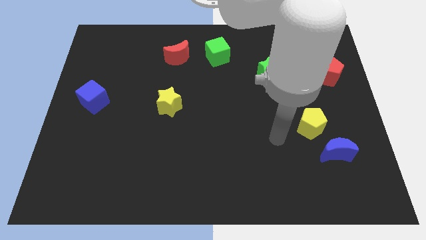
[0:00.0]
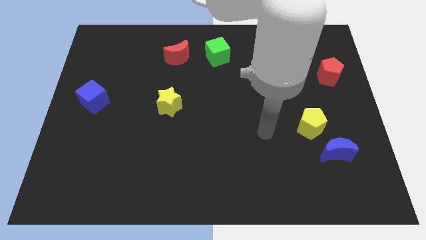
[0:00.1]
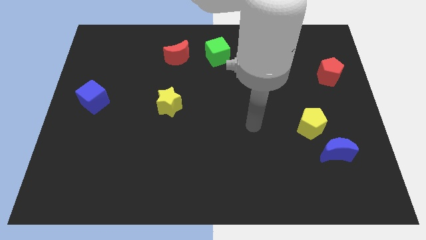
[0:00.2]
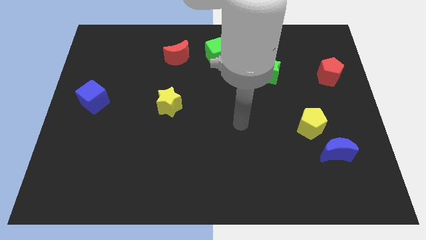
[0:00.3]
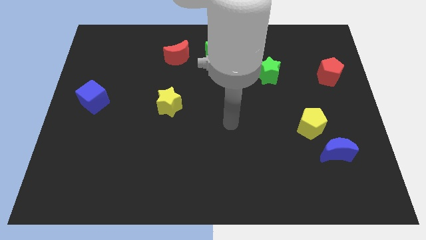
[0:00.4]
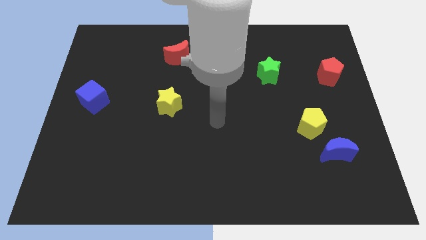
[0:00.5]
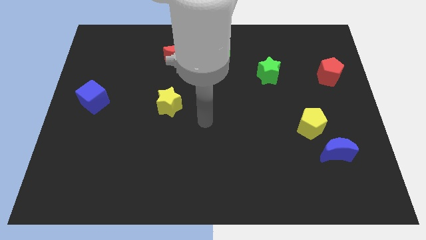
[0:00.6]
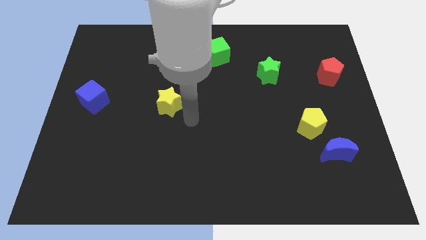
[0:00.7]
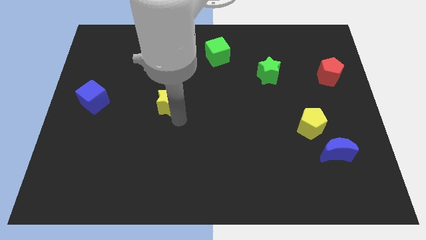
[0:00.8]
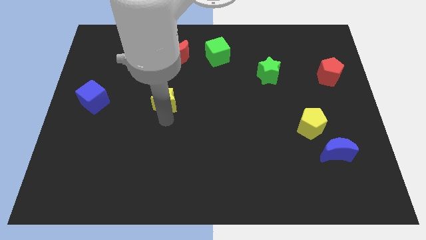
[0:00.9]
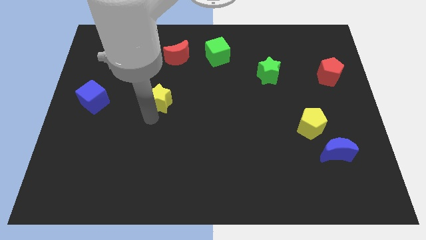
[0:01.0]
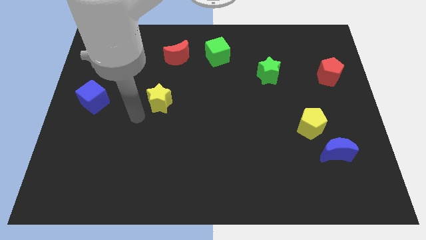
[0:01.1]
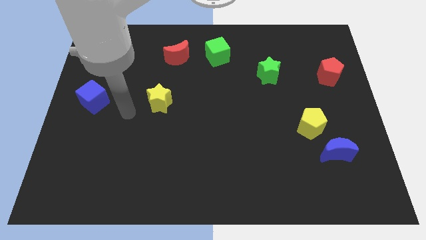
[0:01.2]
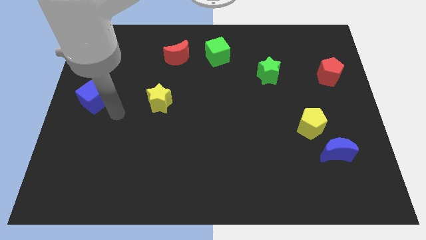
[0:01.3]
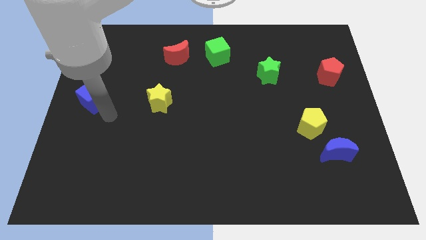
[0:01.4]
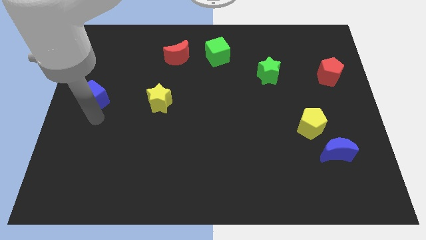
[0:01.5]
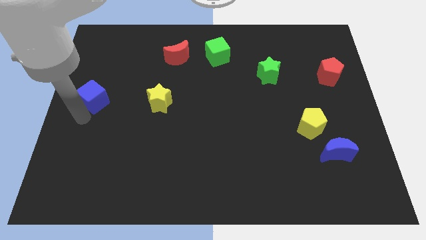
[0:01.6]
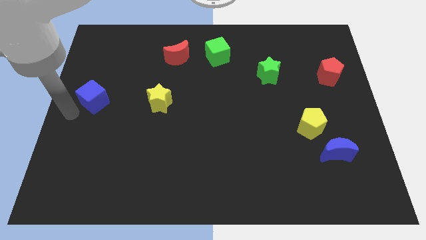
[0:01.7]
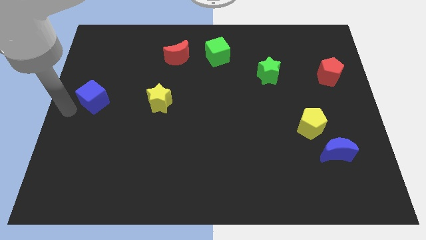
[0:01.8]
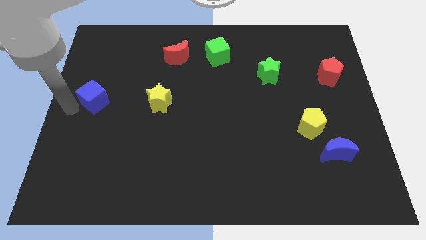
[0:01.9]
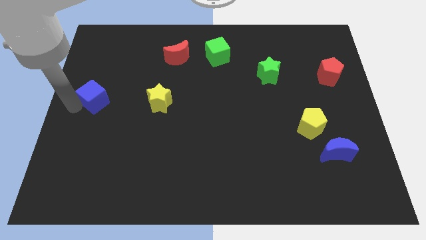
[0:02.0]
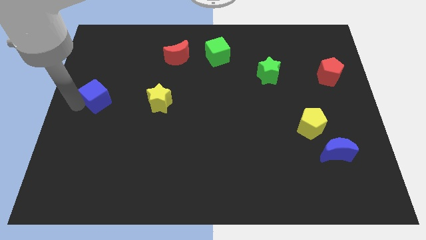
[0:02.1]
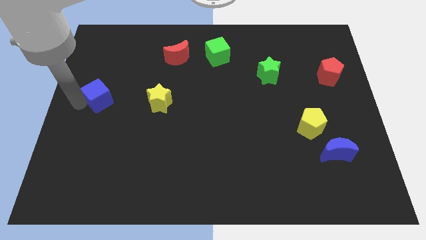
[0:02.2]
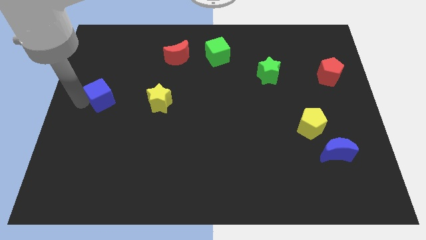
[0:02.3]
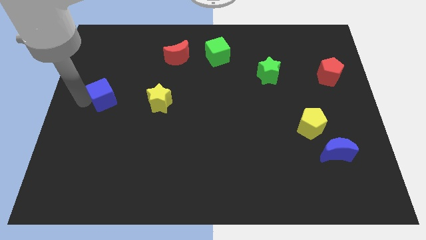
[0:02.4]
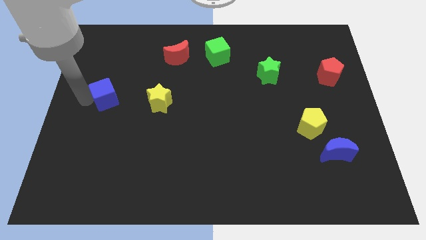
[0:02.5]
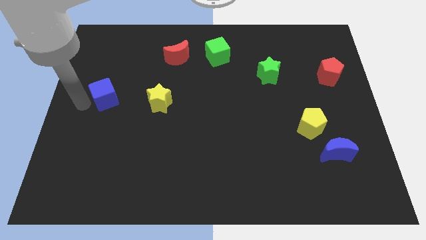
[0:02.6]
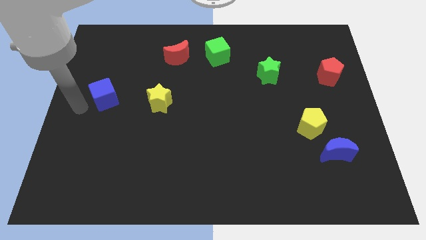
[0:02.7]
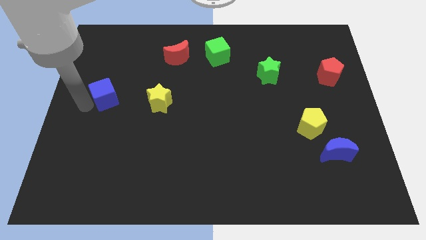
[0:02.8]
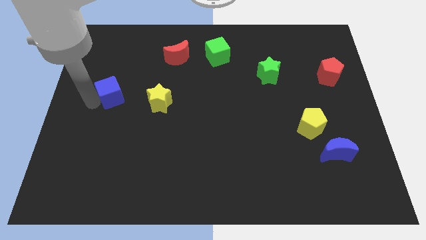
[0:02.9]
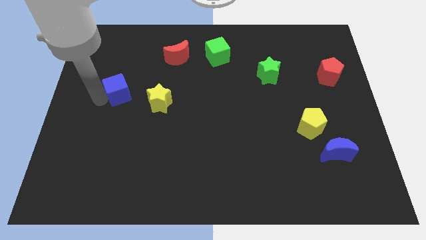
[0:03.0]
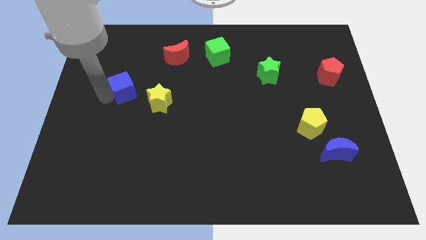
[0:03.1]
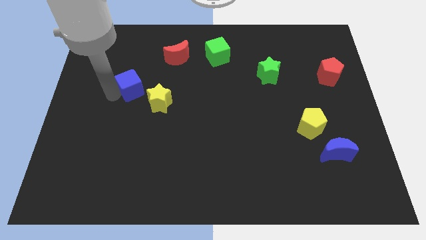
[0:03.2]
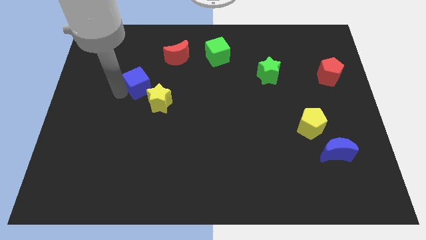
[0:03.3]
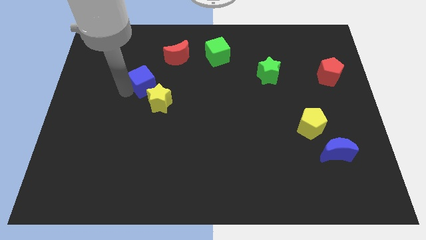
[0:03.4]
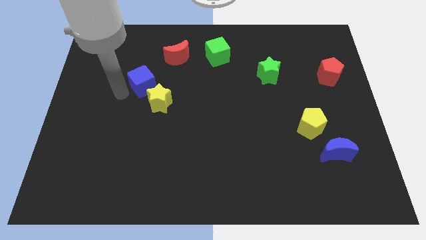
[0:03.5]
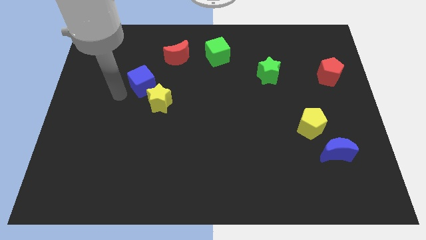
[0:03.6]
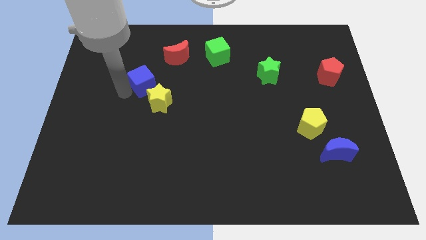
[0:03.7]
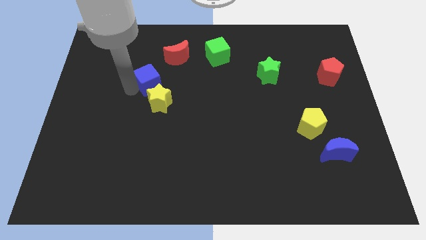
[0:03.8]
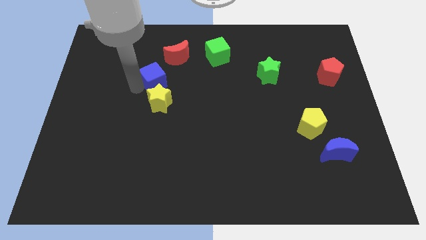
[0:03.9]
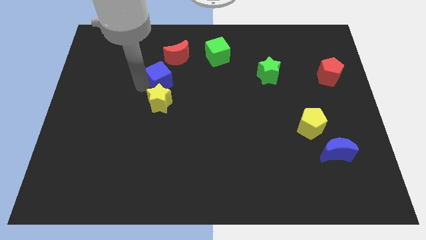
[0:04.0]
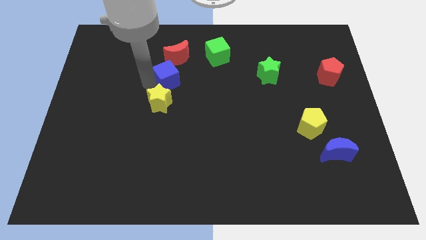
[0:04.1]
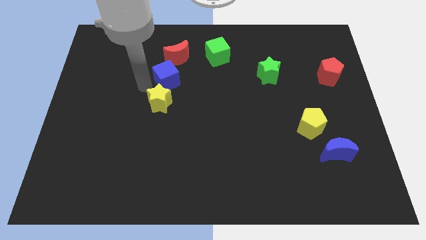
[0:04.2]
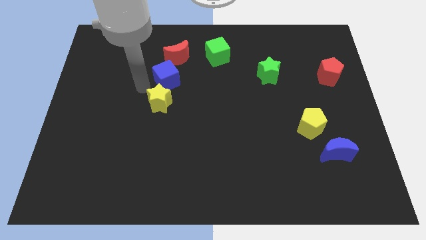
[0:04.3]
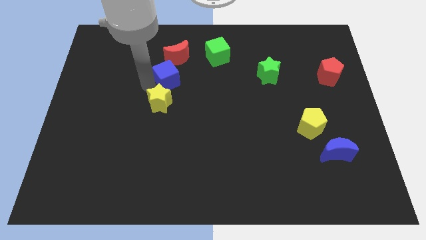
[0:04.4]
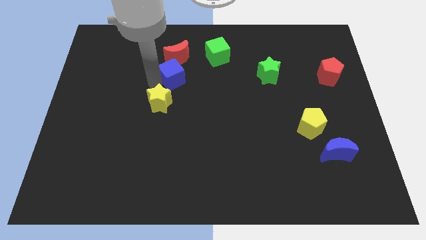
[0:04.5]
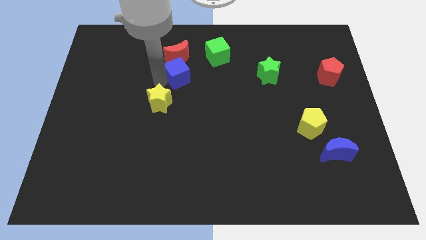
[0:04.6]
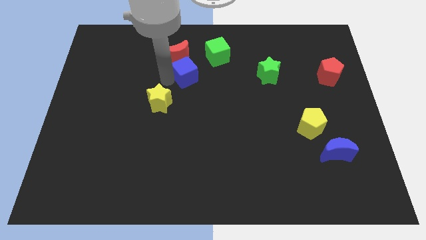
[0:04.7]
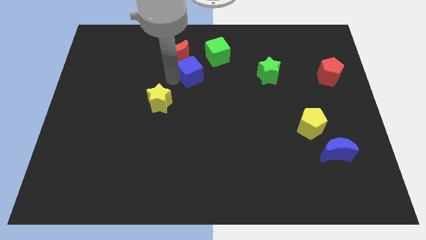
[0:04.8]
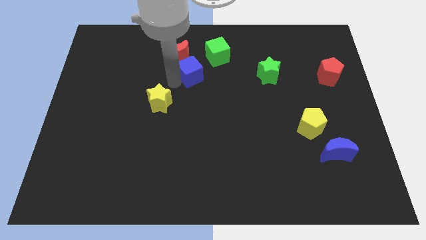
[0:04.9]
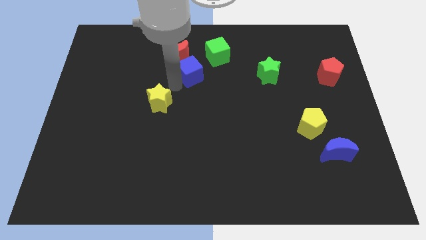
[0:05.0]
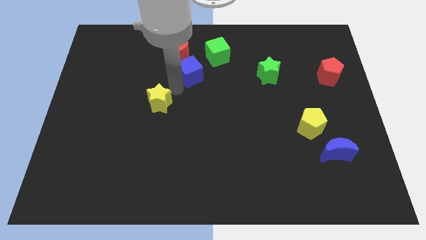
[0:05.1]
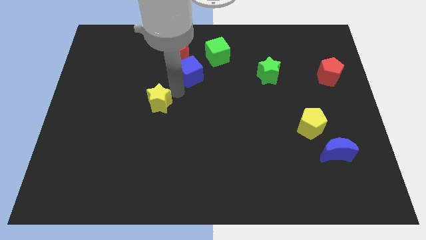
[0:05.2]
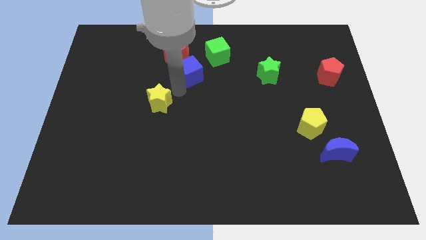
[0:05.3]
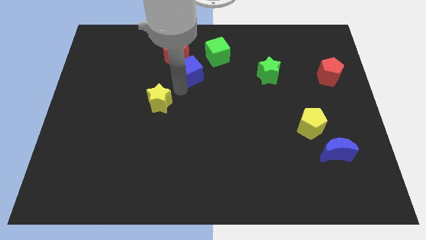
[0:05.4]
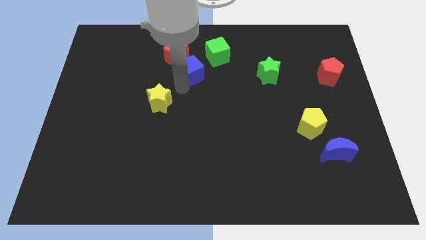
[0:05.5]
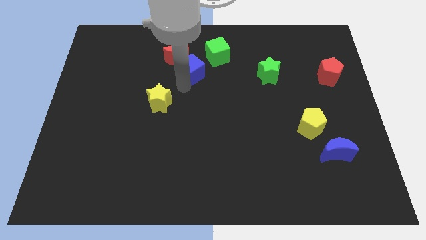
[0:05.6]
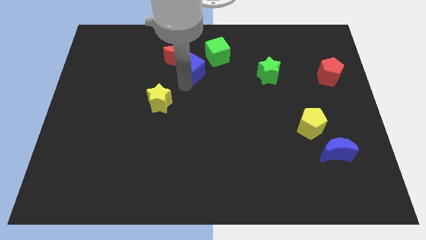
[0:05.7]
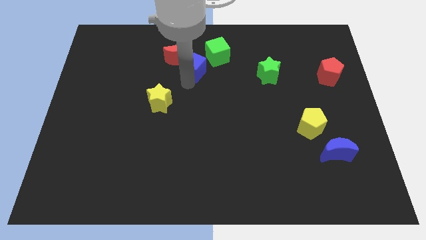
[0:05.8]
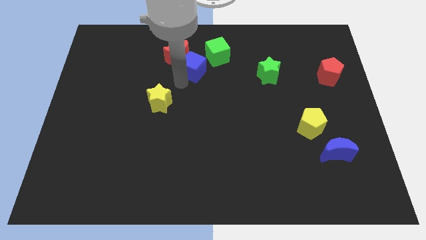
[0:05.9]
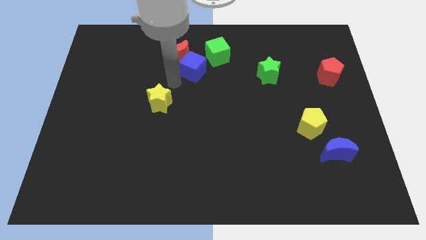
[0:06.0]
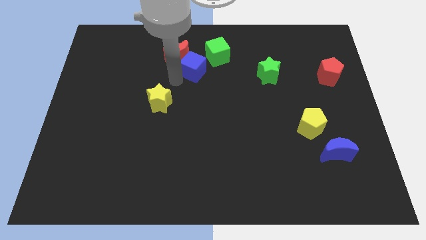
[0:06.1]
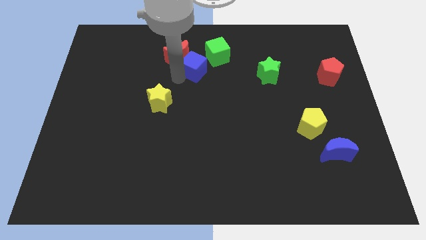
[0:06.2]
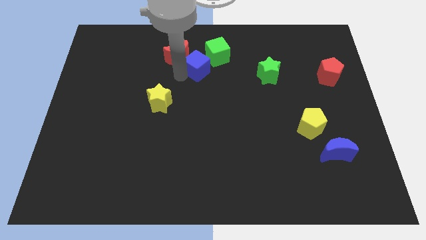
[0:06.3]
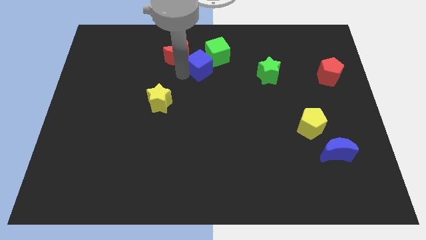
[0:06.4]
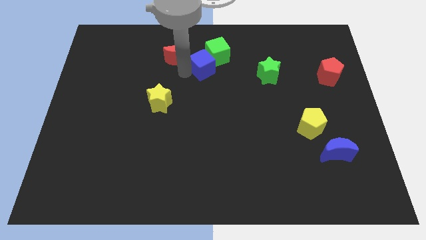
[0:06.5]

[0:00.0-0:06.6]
slide the blue cube next to the green cube

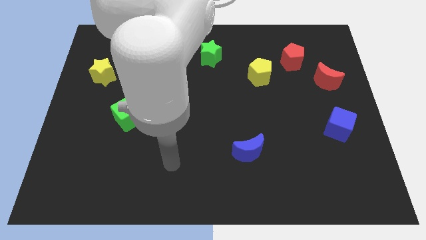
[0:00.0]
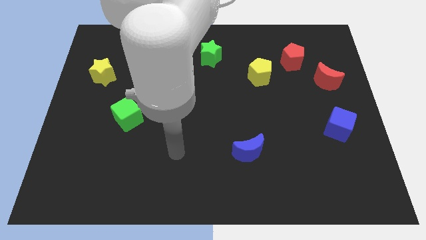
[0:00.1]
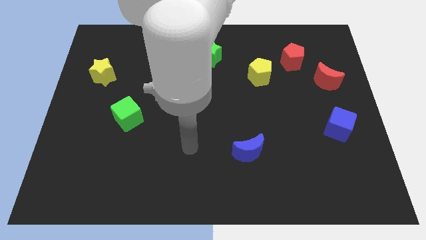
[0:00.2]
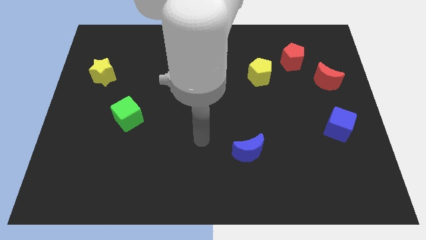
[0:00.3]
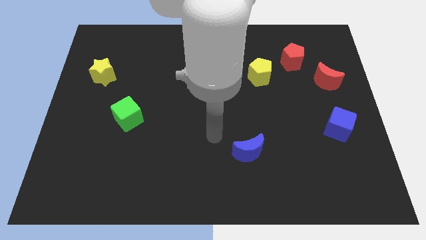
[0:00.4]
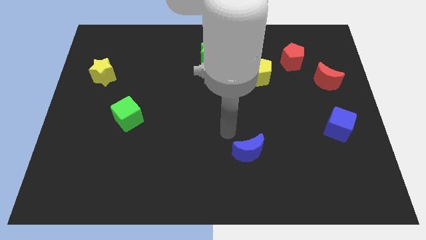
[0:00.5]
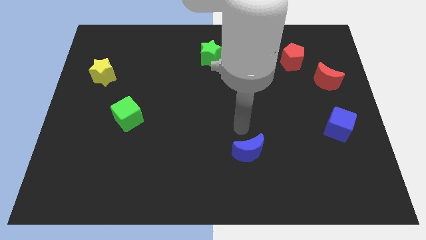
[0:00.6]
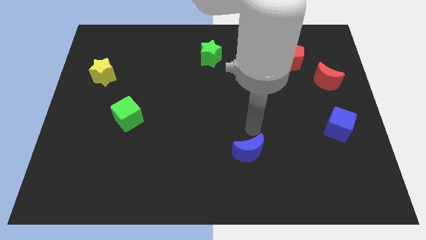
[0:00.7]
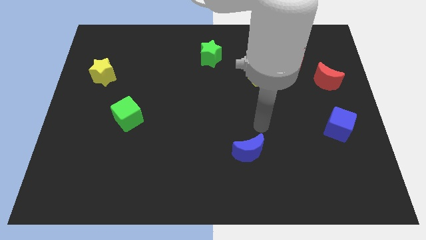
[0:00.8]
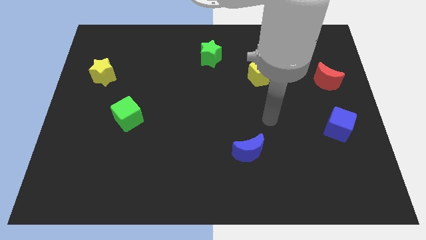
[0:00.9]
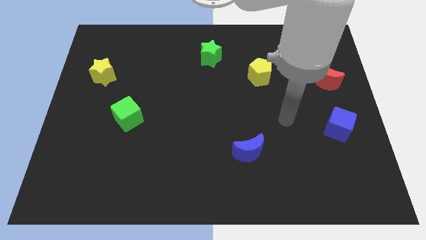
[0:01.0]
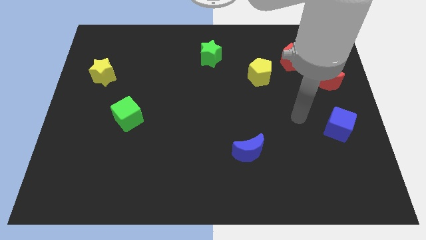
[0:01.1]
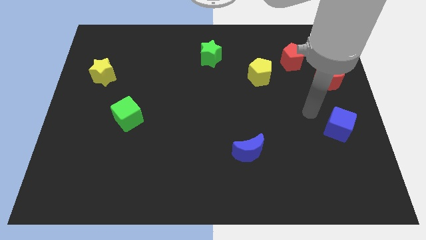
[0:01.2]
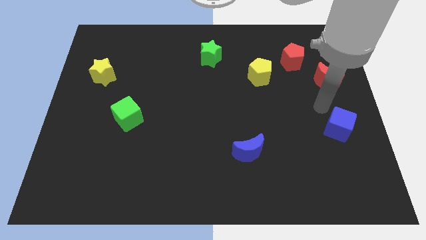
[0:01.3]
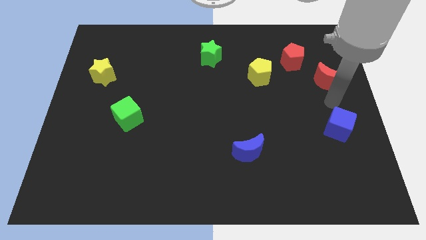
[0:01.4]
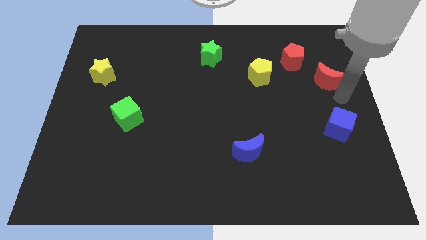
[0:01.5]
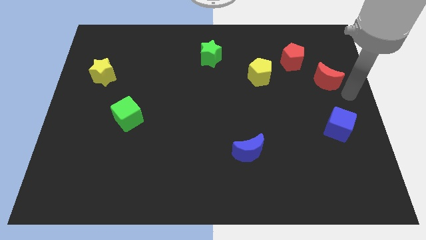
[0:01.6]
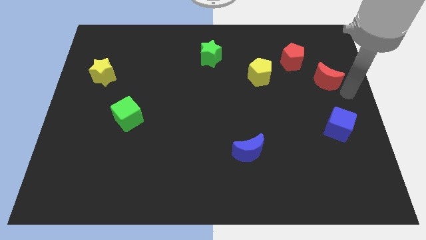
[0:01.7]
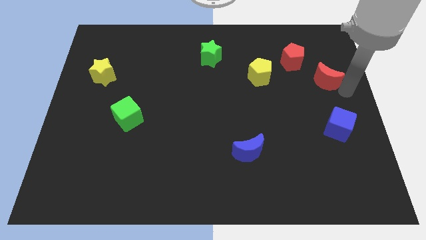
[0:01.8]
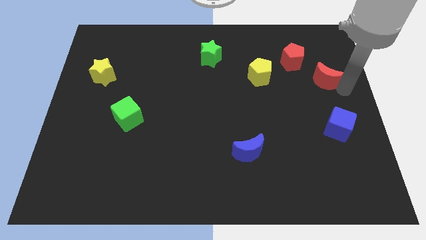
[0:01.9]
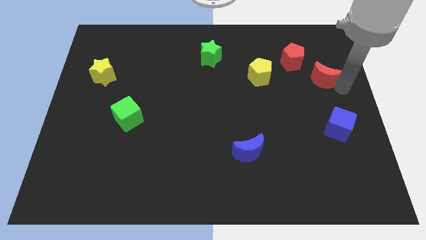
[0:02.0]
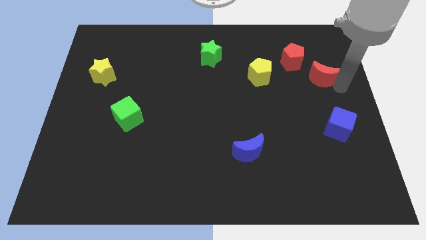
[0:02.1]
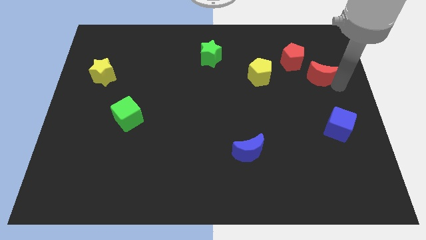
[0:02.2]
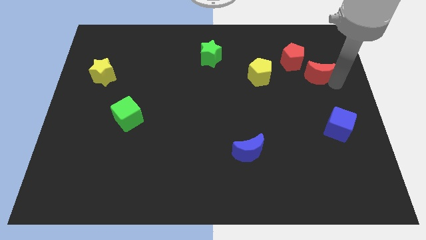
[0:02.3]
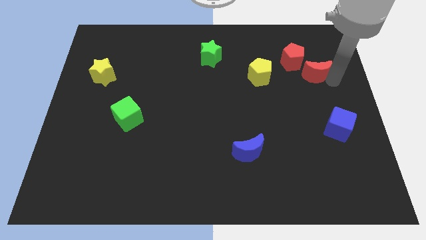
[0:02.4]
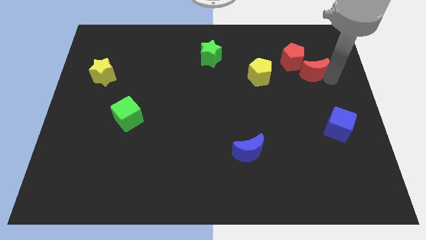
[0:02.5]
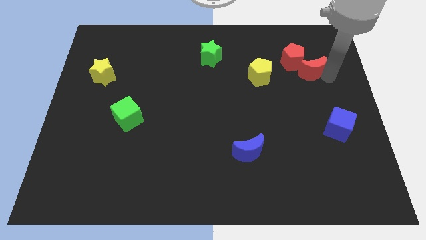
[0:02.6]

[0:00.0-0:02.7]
push the red moon close to the red pentagon
